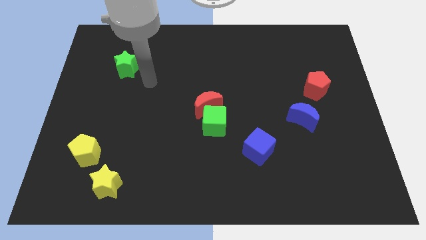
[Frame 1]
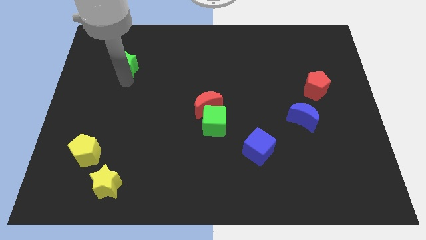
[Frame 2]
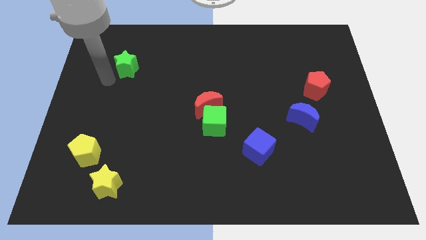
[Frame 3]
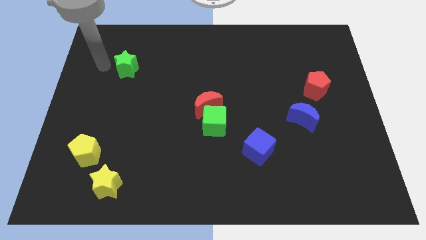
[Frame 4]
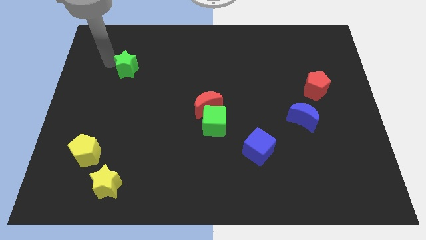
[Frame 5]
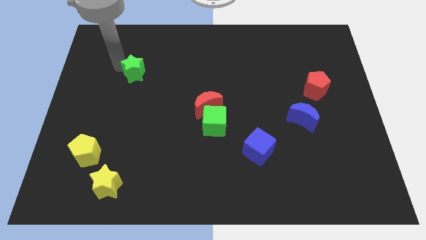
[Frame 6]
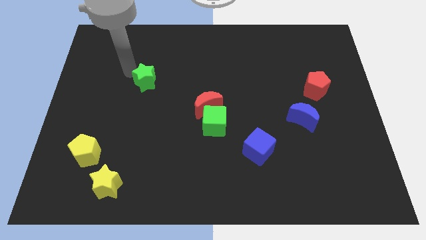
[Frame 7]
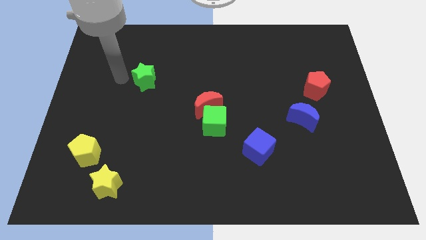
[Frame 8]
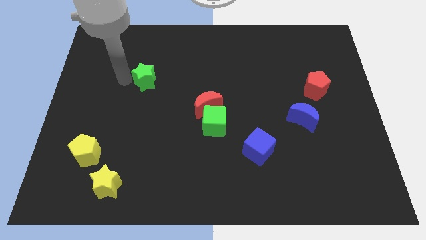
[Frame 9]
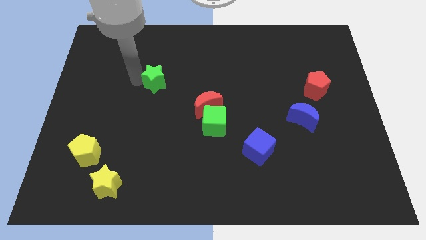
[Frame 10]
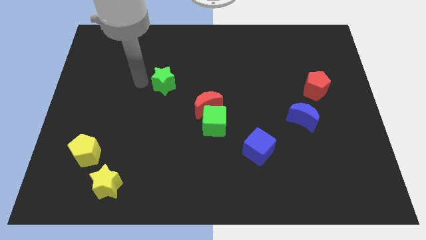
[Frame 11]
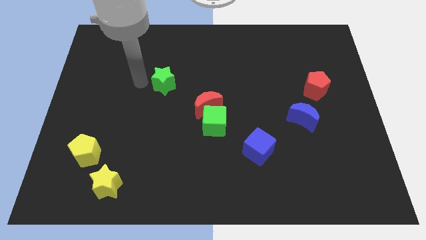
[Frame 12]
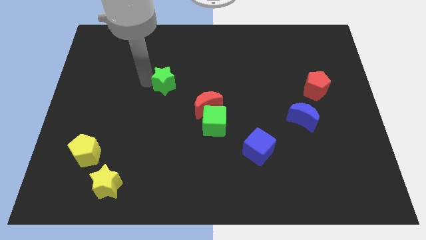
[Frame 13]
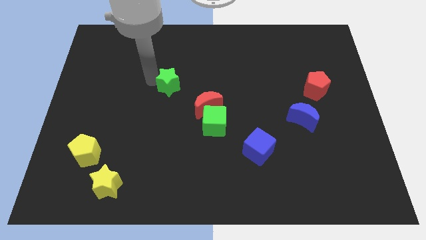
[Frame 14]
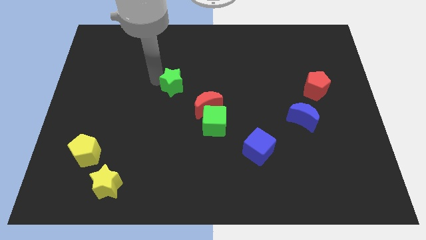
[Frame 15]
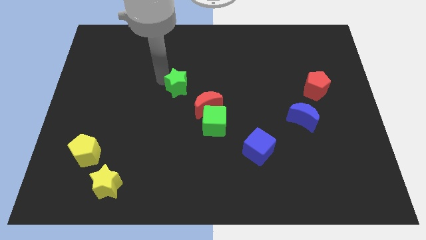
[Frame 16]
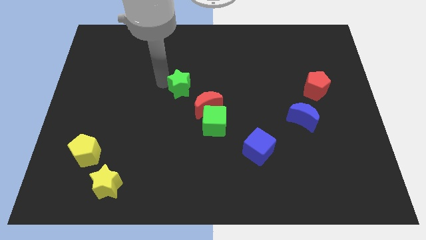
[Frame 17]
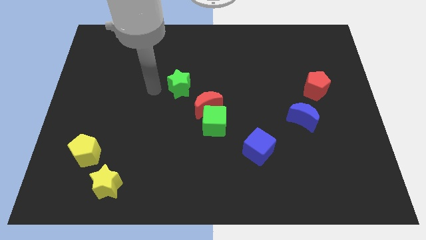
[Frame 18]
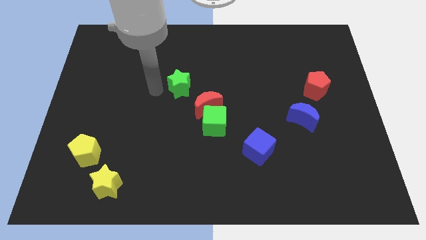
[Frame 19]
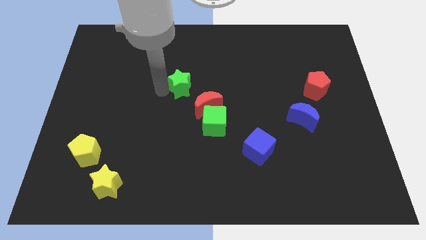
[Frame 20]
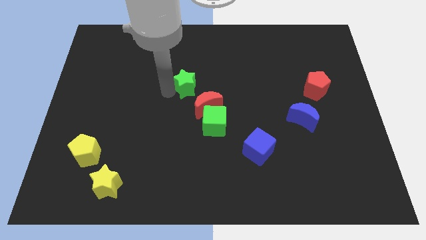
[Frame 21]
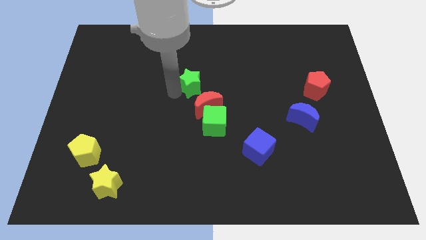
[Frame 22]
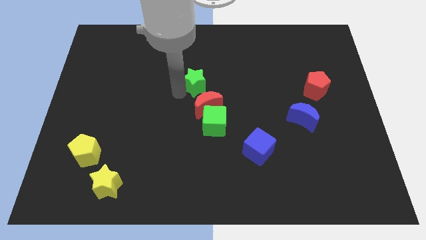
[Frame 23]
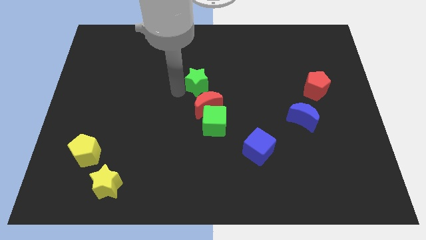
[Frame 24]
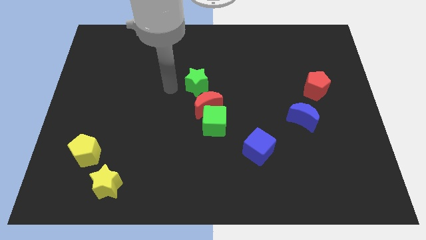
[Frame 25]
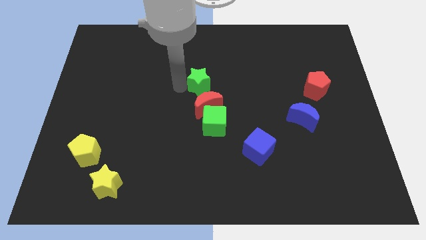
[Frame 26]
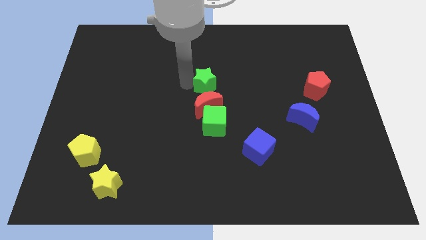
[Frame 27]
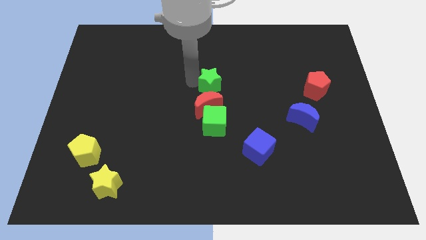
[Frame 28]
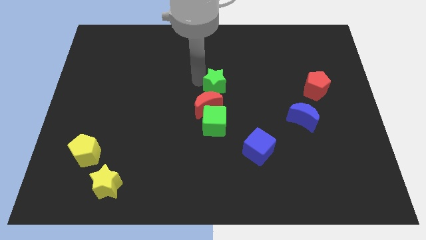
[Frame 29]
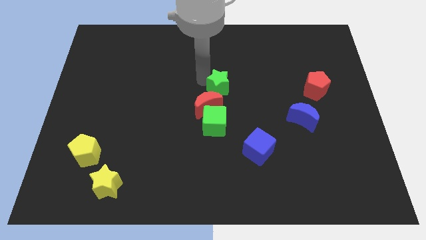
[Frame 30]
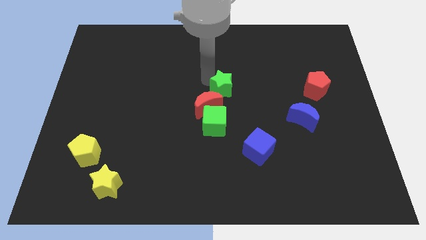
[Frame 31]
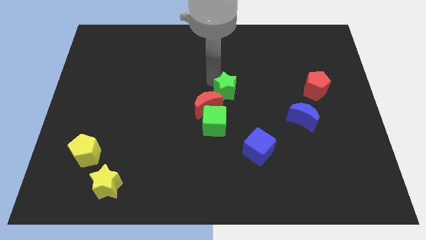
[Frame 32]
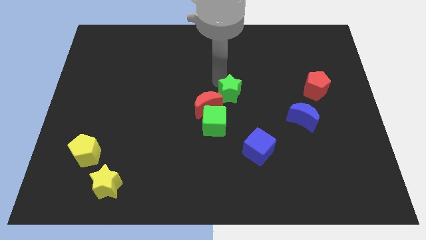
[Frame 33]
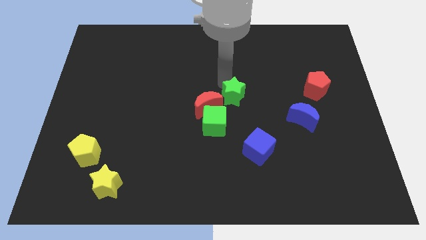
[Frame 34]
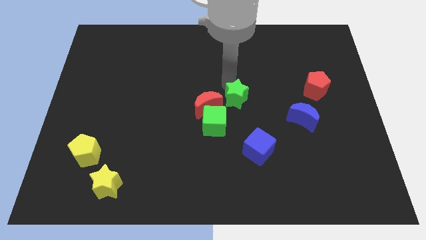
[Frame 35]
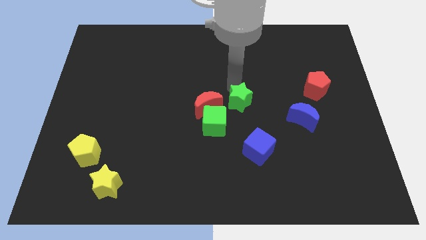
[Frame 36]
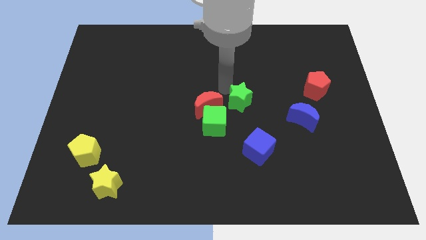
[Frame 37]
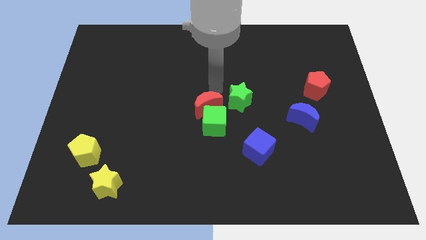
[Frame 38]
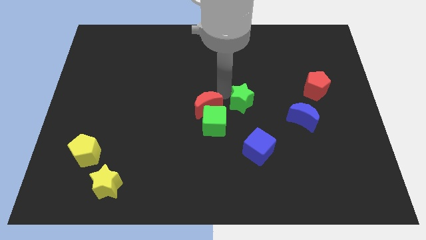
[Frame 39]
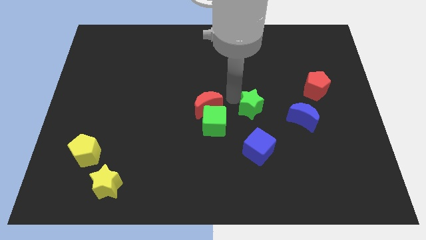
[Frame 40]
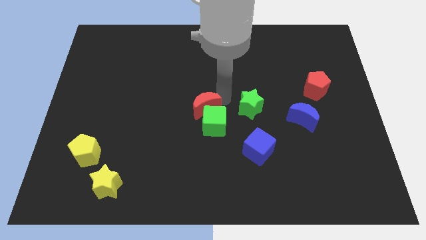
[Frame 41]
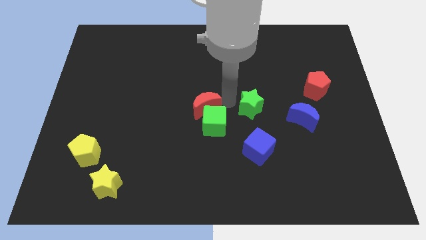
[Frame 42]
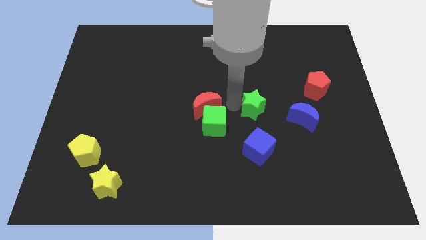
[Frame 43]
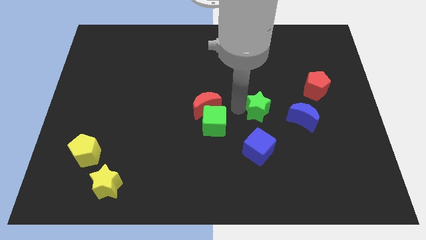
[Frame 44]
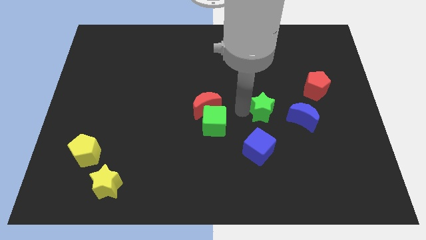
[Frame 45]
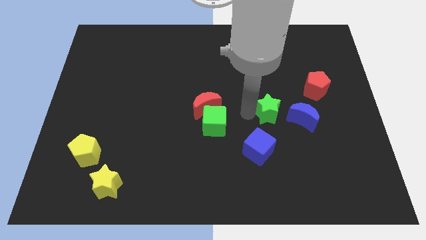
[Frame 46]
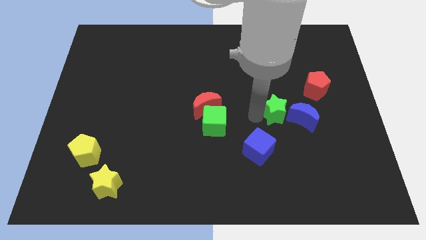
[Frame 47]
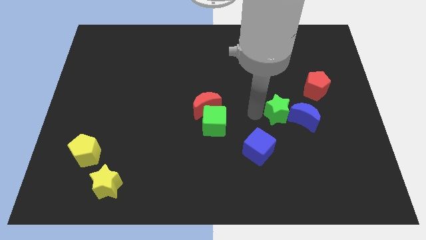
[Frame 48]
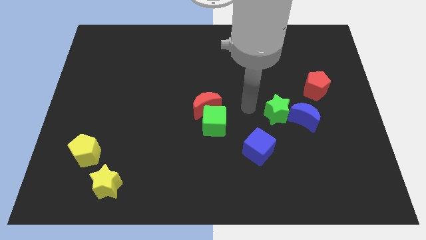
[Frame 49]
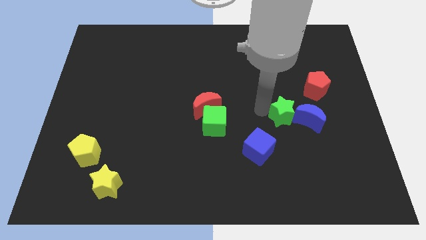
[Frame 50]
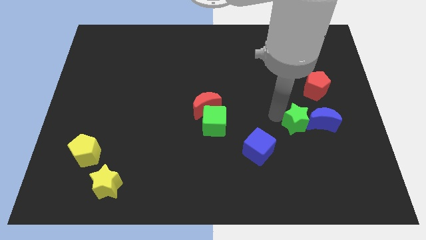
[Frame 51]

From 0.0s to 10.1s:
push the green star to the blue moon

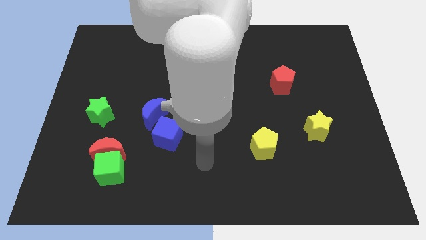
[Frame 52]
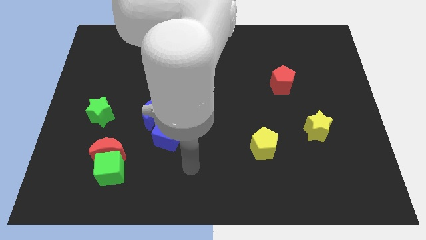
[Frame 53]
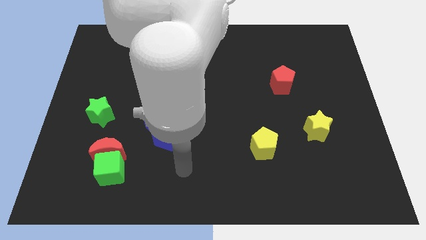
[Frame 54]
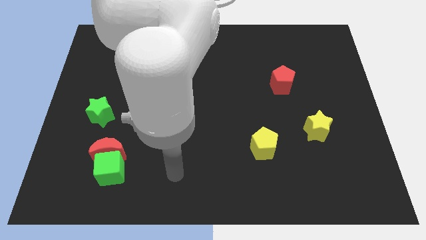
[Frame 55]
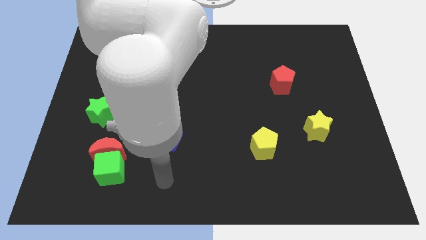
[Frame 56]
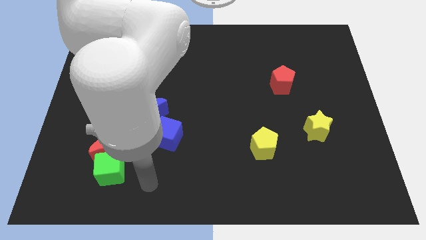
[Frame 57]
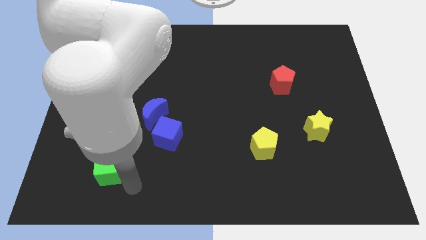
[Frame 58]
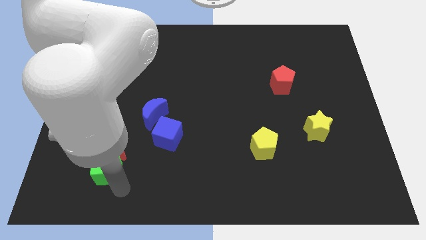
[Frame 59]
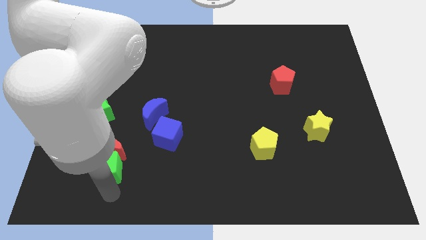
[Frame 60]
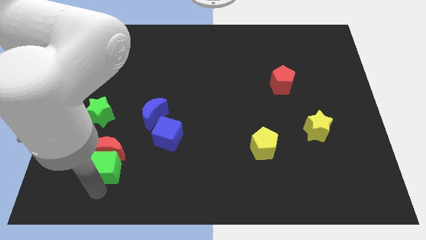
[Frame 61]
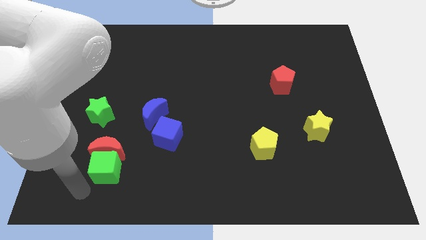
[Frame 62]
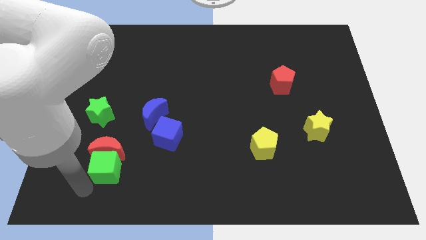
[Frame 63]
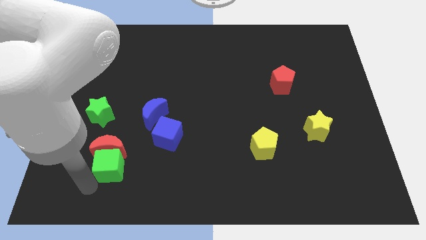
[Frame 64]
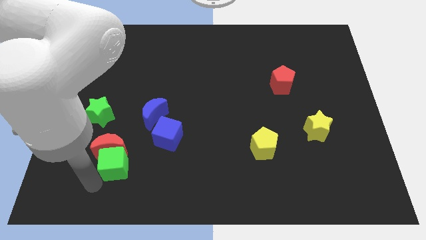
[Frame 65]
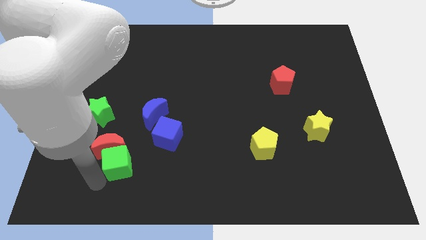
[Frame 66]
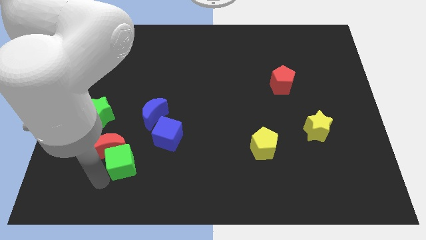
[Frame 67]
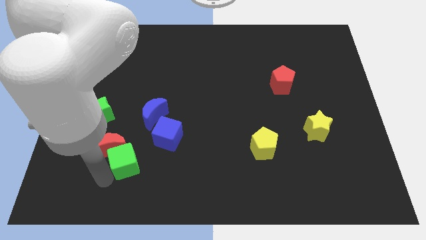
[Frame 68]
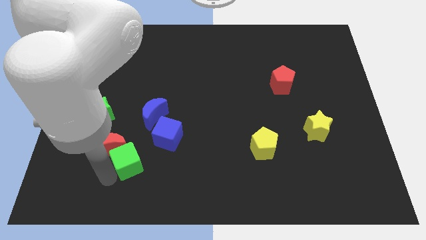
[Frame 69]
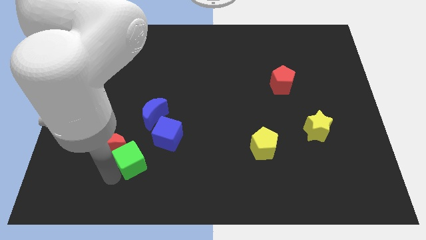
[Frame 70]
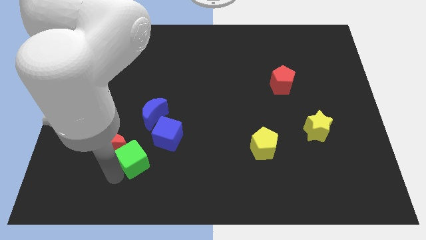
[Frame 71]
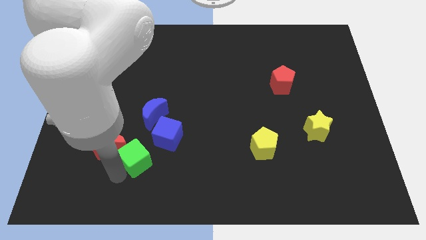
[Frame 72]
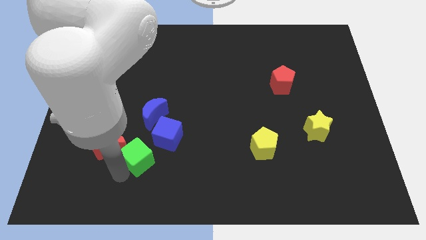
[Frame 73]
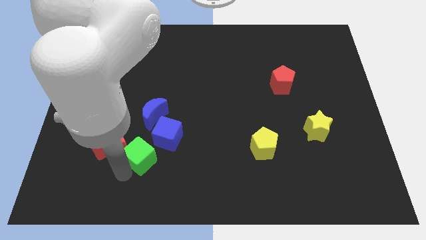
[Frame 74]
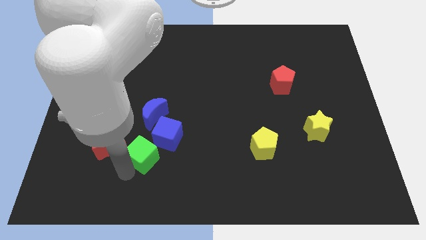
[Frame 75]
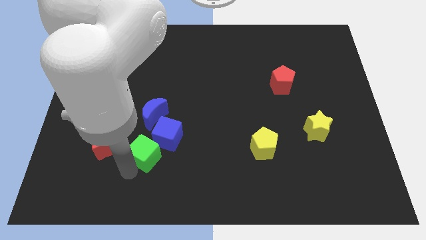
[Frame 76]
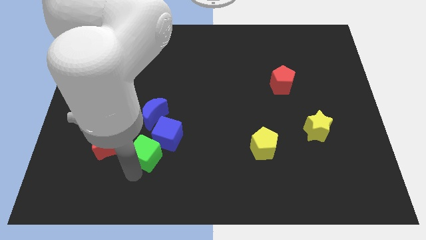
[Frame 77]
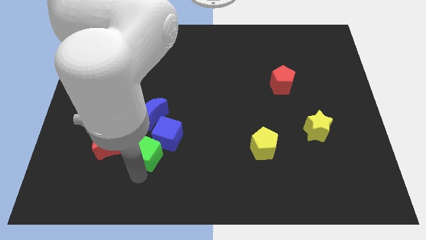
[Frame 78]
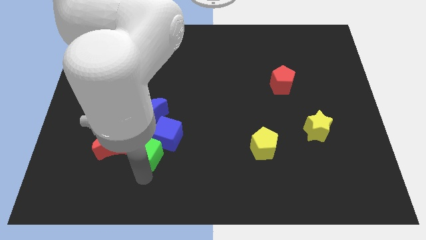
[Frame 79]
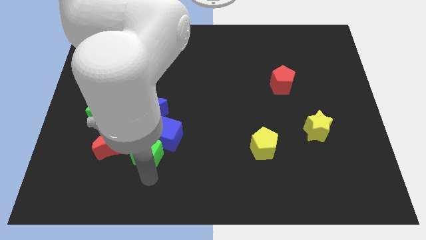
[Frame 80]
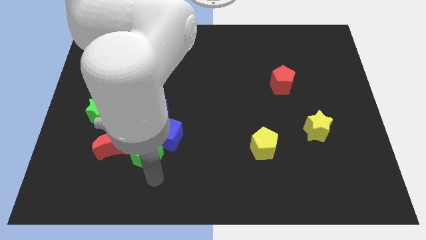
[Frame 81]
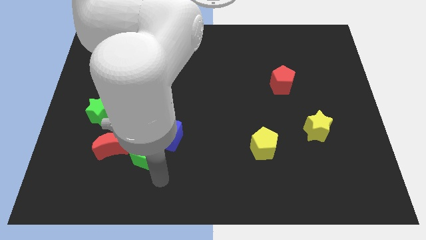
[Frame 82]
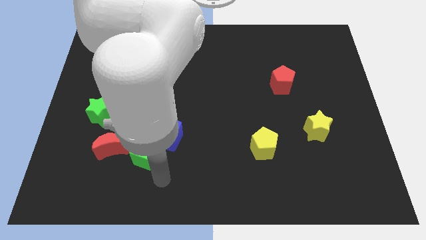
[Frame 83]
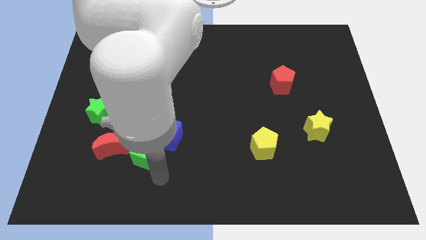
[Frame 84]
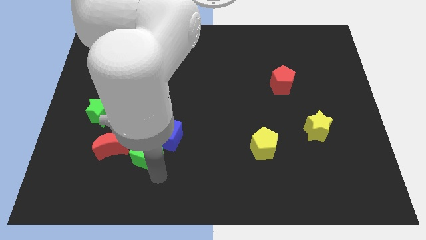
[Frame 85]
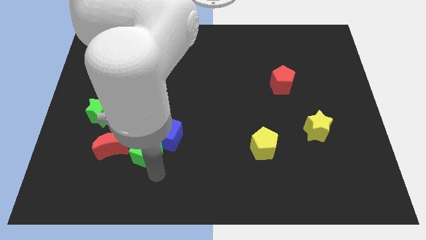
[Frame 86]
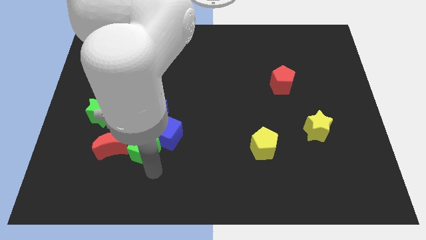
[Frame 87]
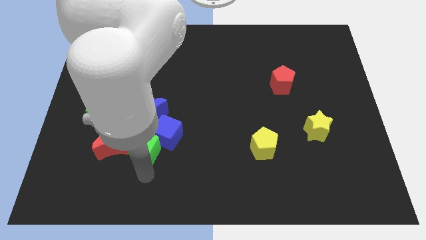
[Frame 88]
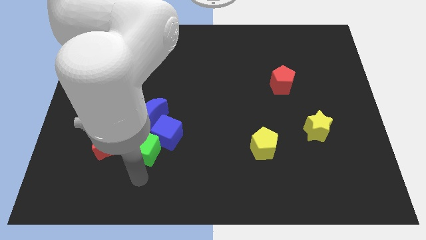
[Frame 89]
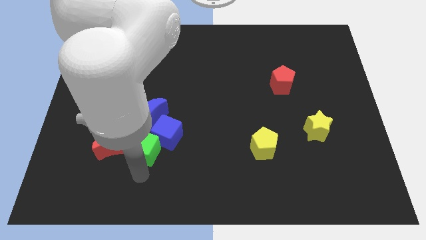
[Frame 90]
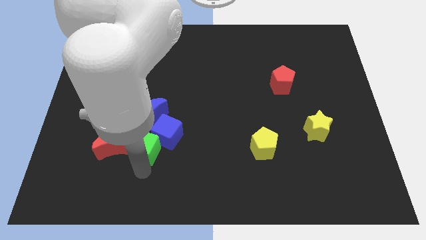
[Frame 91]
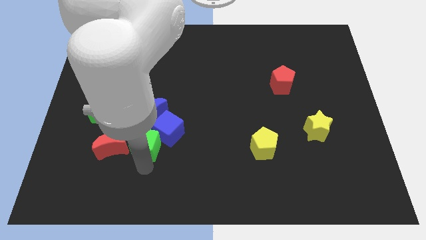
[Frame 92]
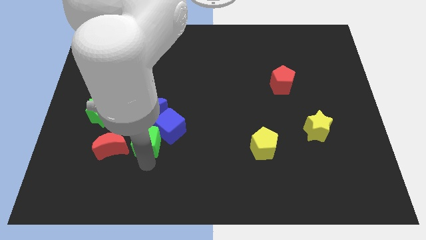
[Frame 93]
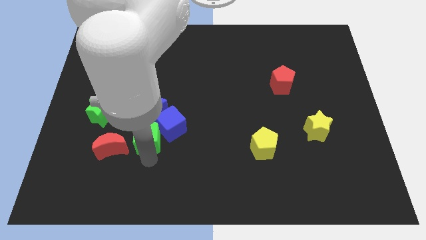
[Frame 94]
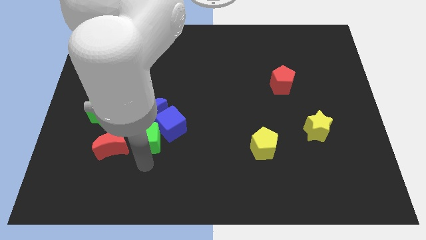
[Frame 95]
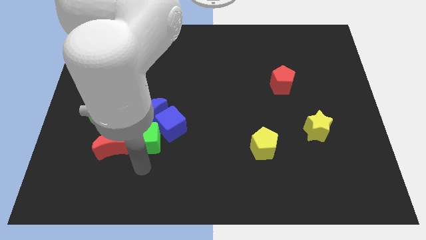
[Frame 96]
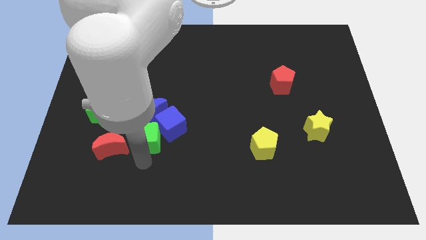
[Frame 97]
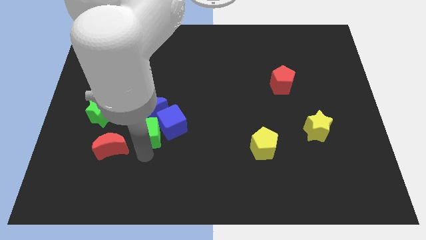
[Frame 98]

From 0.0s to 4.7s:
push the green cube close to the blue moon
